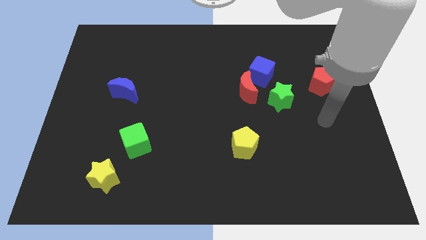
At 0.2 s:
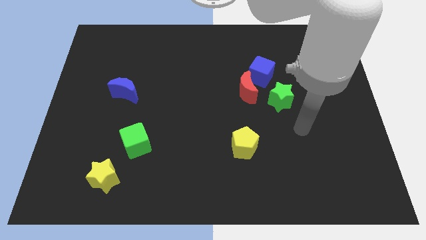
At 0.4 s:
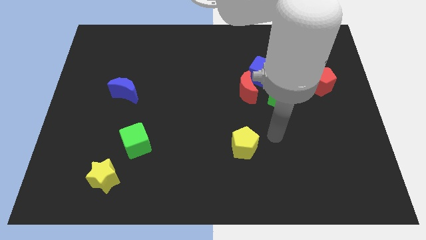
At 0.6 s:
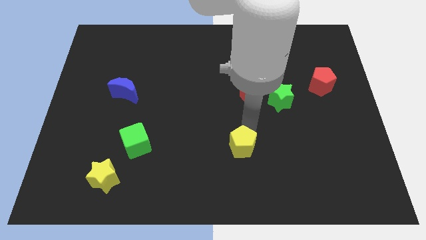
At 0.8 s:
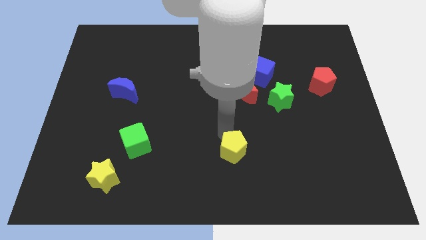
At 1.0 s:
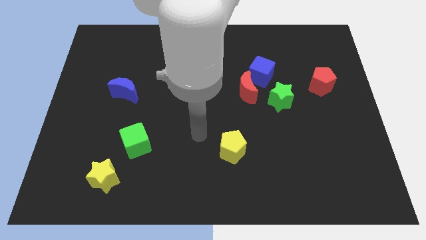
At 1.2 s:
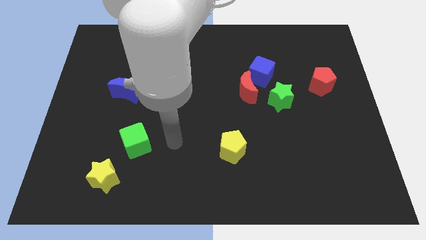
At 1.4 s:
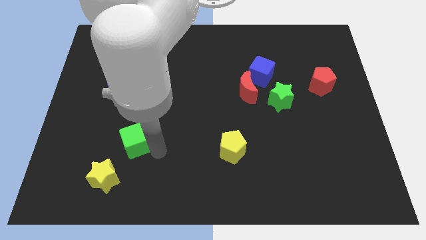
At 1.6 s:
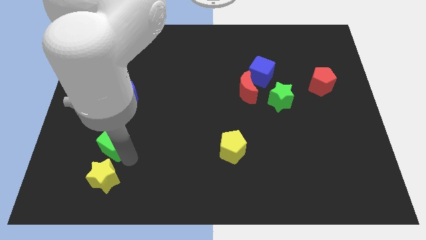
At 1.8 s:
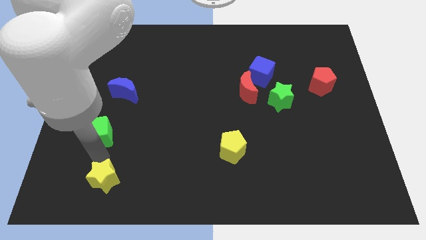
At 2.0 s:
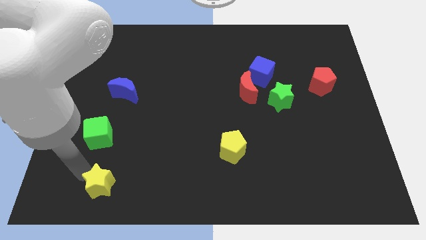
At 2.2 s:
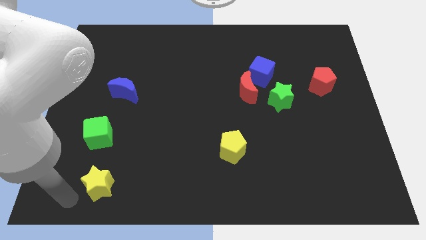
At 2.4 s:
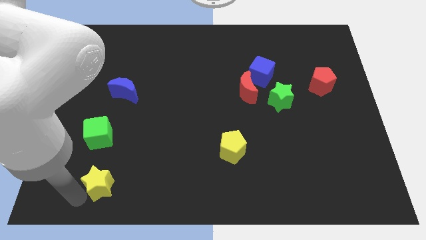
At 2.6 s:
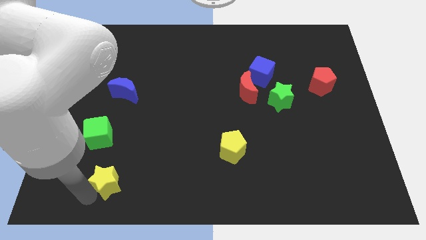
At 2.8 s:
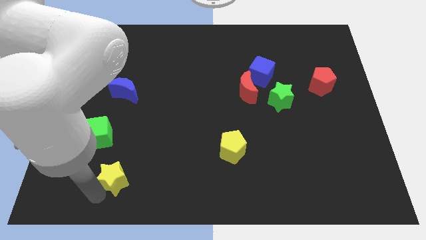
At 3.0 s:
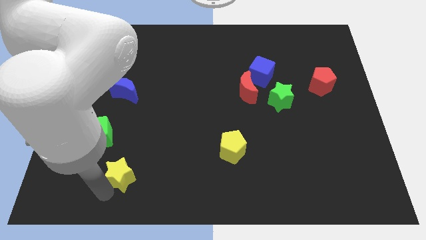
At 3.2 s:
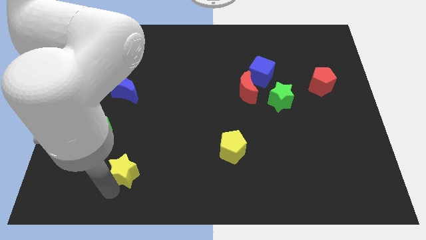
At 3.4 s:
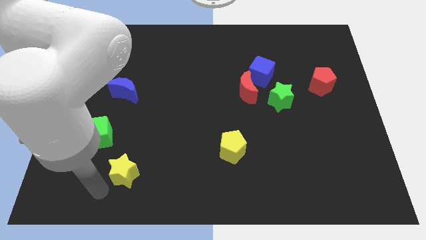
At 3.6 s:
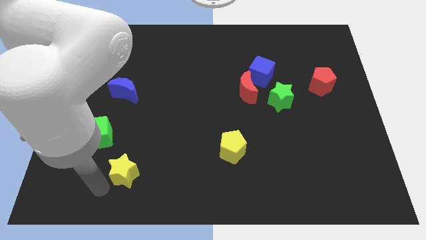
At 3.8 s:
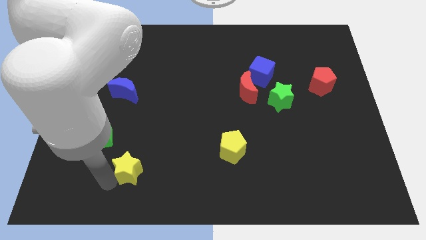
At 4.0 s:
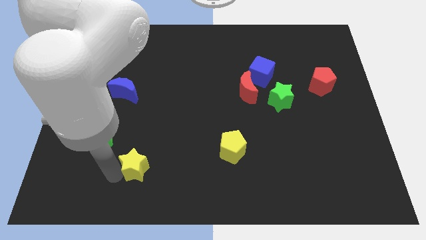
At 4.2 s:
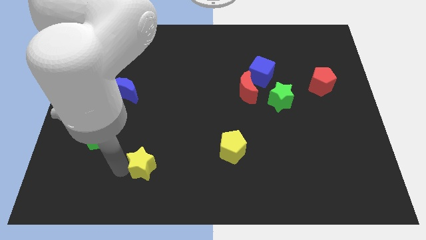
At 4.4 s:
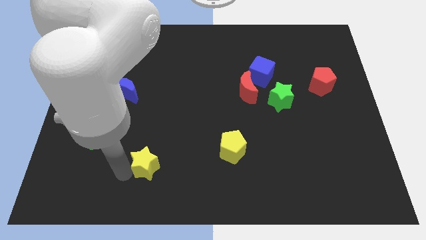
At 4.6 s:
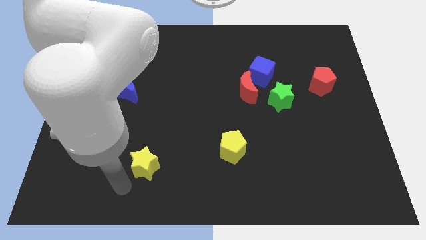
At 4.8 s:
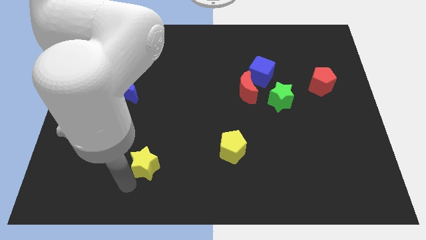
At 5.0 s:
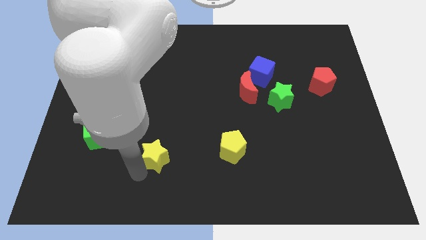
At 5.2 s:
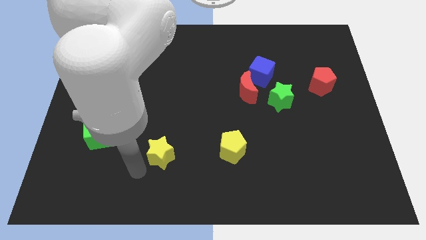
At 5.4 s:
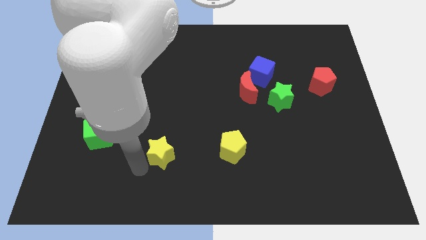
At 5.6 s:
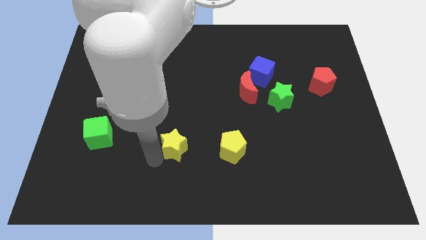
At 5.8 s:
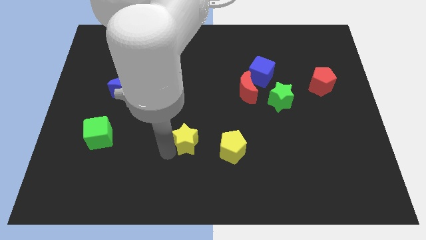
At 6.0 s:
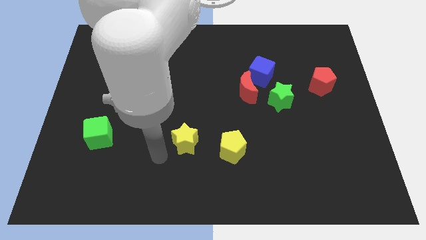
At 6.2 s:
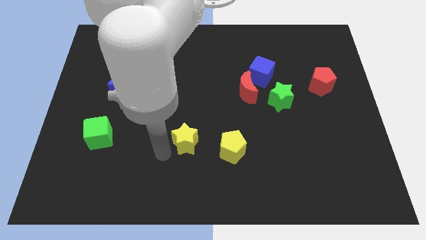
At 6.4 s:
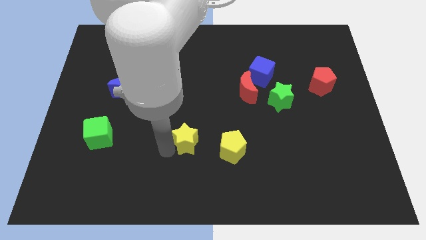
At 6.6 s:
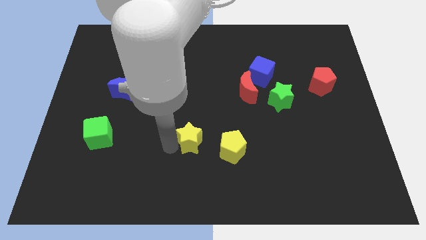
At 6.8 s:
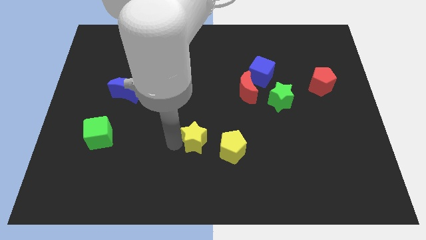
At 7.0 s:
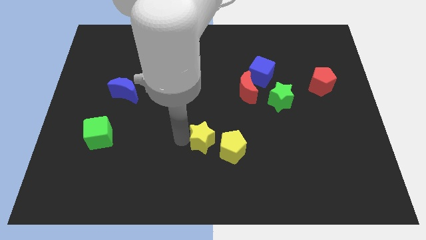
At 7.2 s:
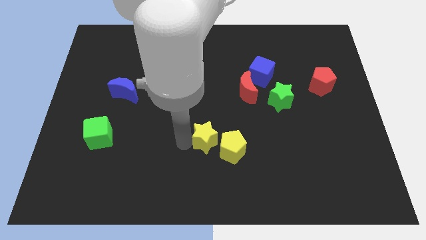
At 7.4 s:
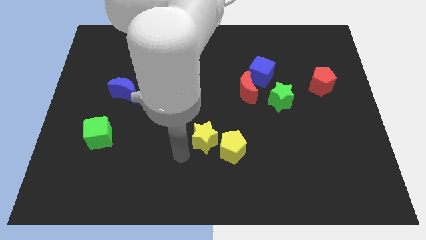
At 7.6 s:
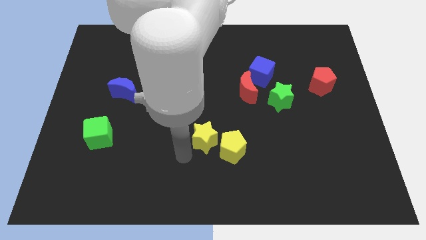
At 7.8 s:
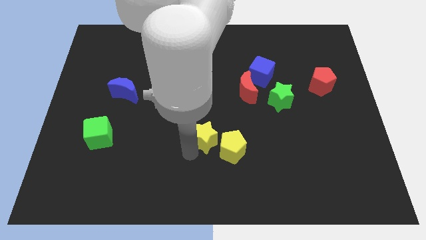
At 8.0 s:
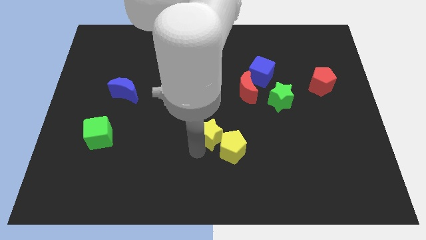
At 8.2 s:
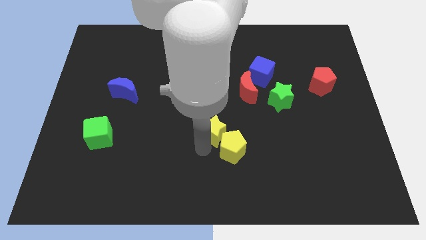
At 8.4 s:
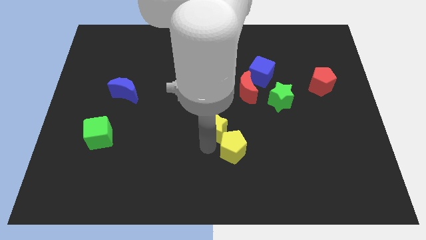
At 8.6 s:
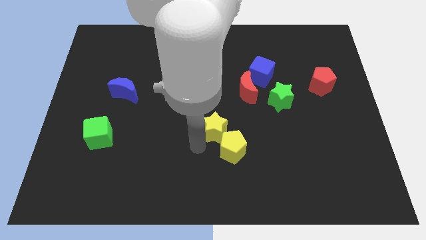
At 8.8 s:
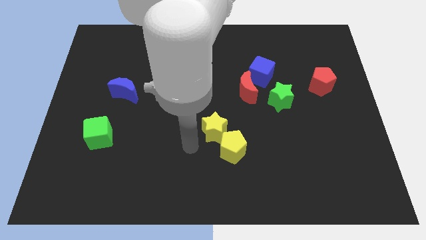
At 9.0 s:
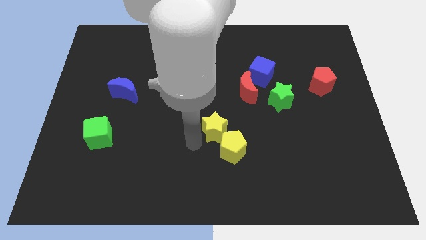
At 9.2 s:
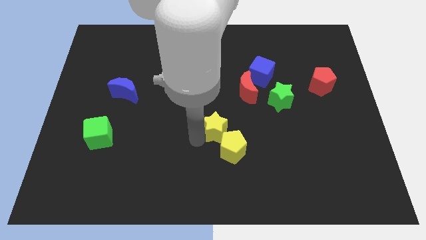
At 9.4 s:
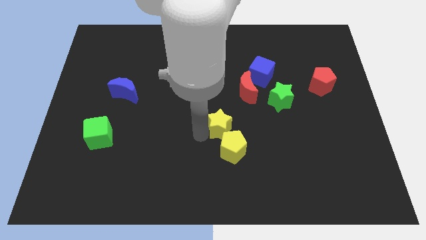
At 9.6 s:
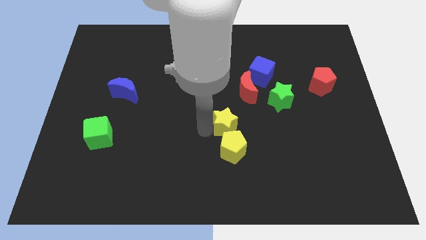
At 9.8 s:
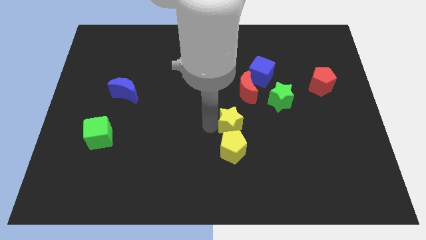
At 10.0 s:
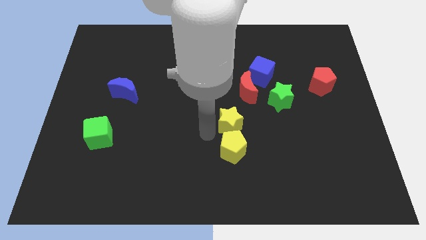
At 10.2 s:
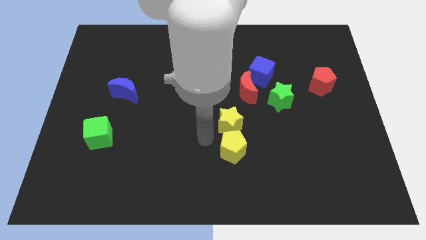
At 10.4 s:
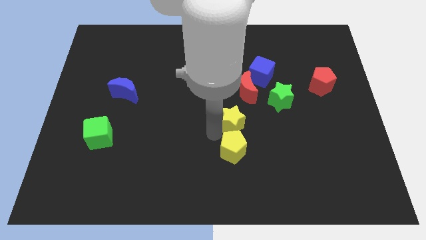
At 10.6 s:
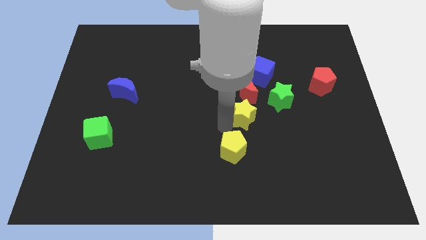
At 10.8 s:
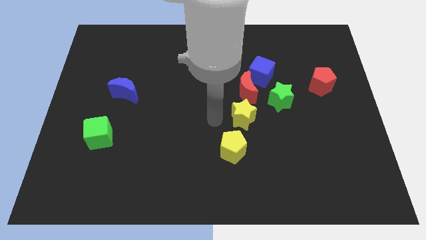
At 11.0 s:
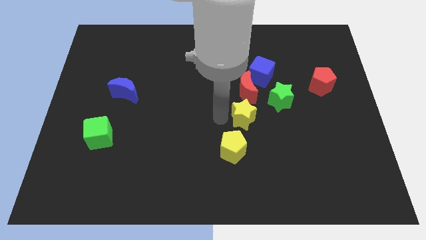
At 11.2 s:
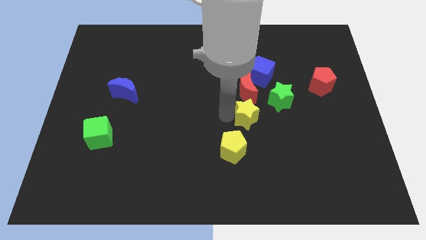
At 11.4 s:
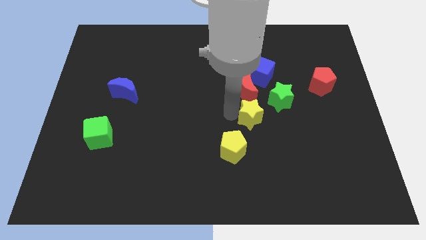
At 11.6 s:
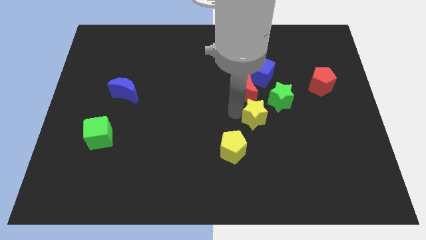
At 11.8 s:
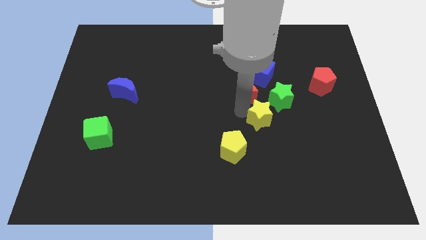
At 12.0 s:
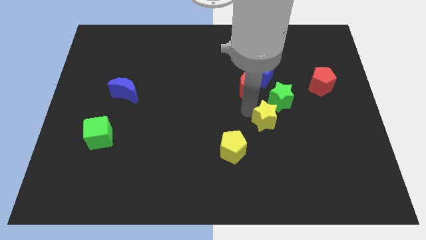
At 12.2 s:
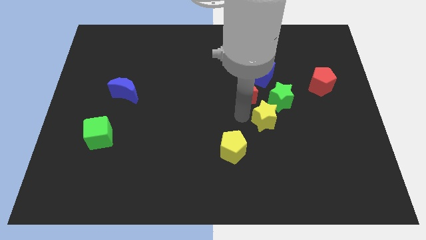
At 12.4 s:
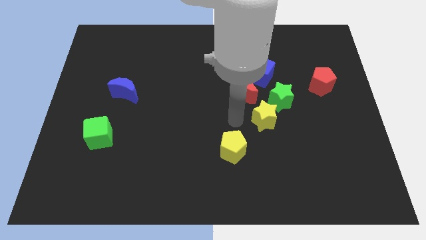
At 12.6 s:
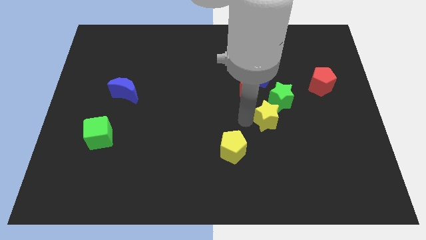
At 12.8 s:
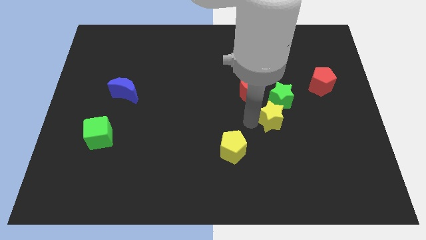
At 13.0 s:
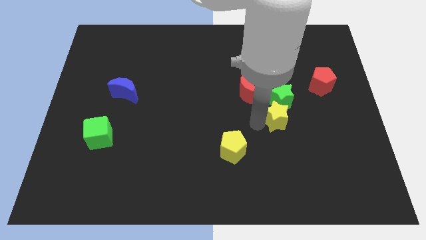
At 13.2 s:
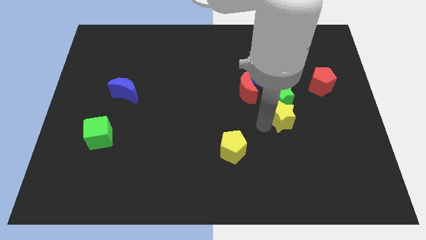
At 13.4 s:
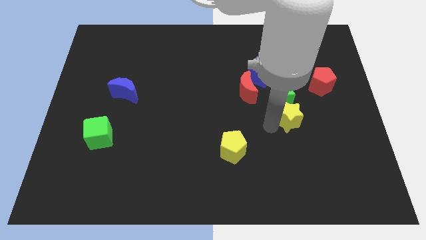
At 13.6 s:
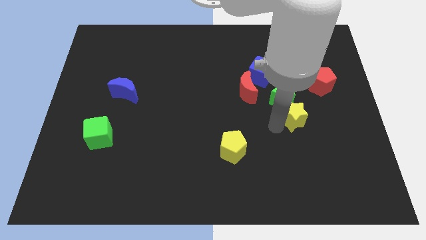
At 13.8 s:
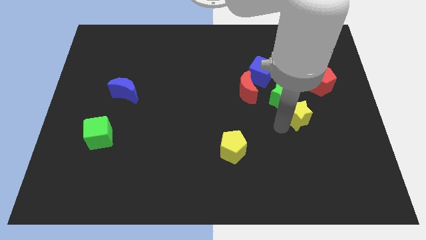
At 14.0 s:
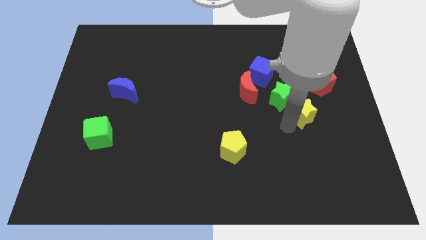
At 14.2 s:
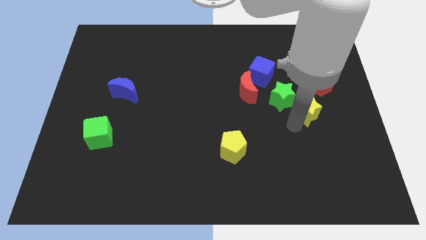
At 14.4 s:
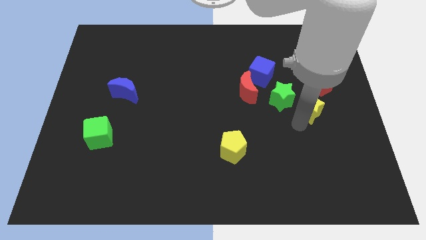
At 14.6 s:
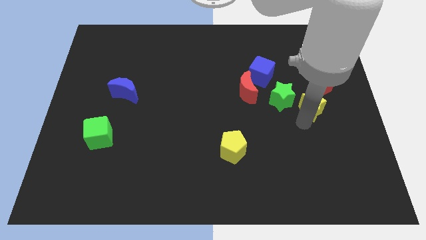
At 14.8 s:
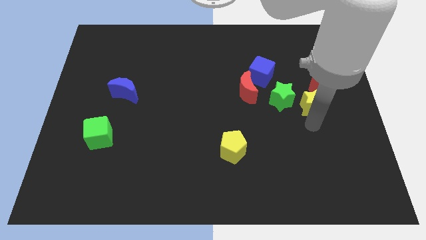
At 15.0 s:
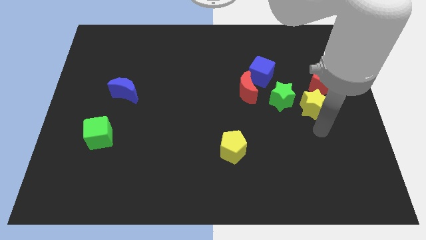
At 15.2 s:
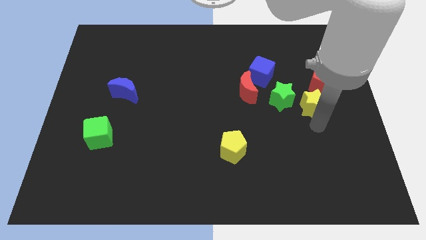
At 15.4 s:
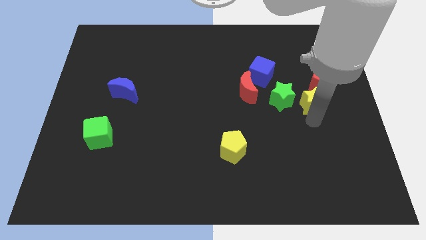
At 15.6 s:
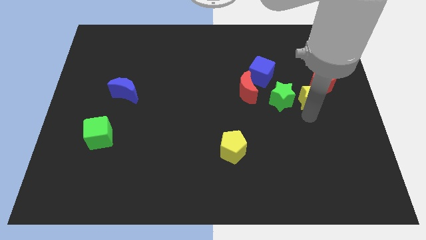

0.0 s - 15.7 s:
slide the yellow star diagonally up and to the right of the green star
